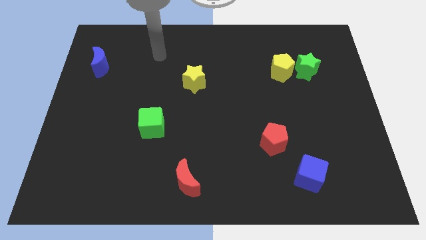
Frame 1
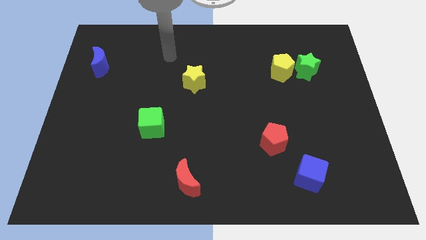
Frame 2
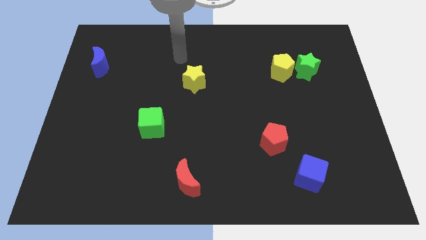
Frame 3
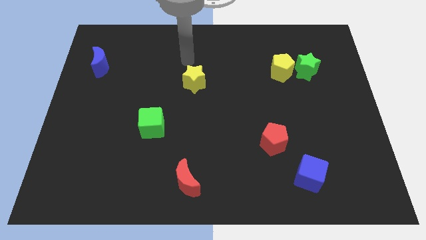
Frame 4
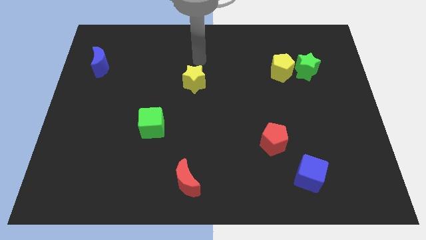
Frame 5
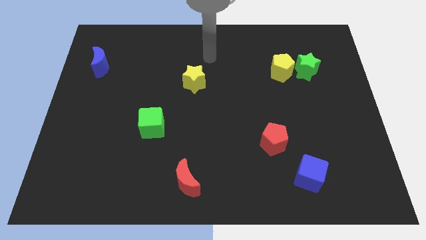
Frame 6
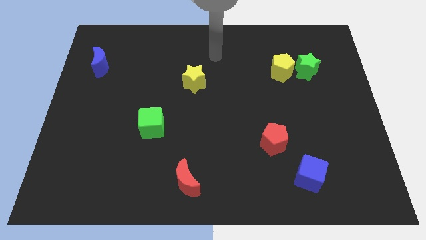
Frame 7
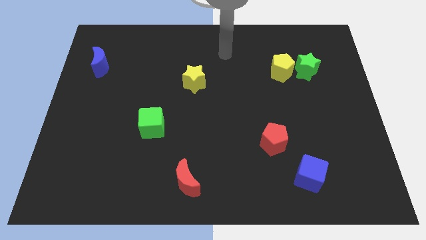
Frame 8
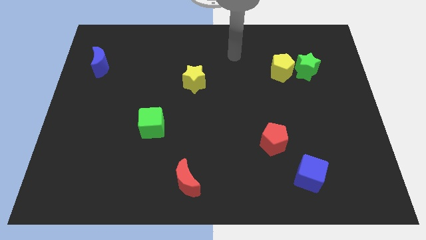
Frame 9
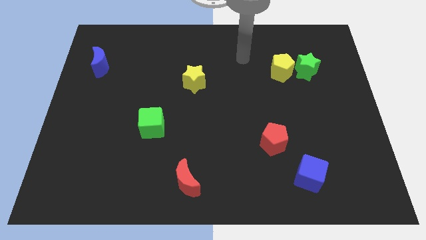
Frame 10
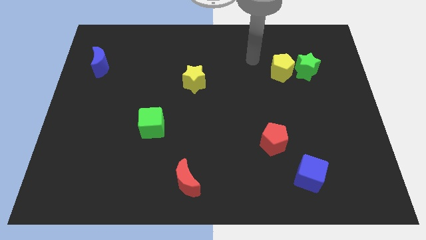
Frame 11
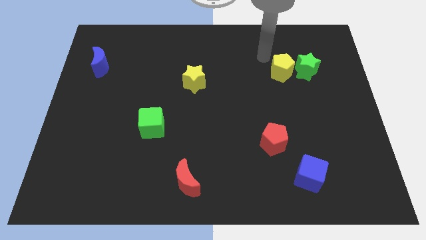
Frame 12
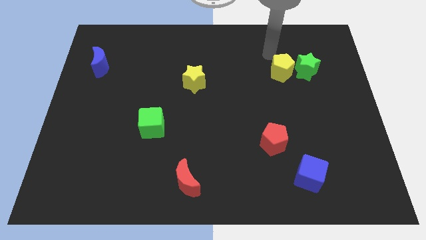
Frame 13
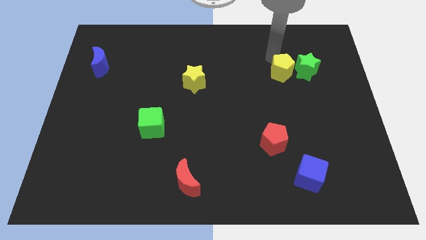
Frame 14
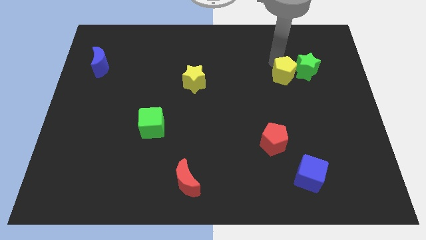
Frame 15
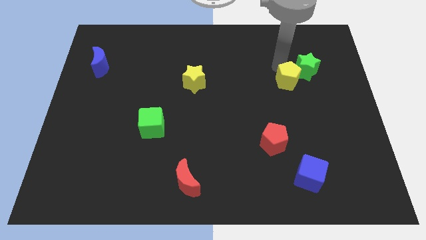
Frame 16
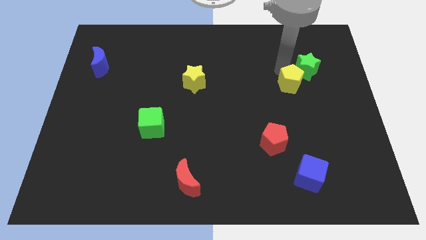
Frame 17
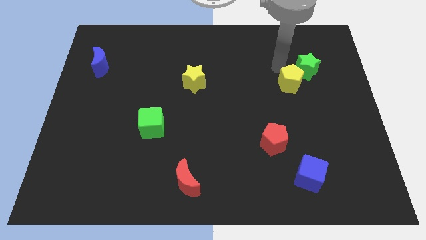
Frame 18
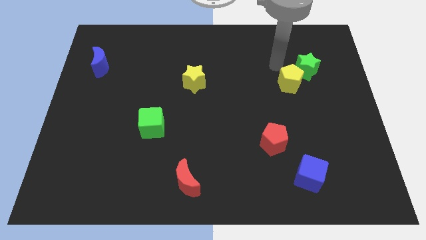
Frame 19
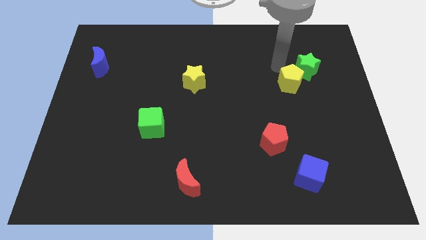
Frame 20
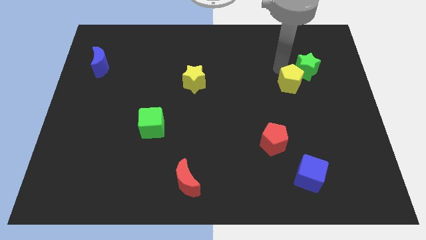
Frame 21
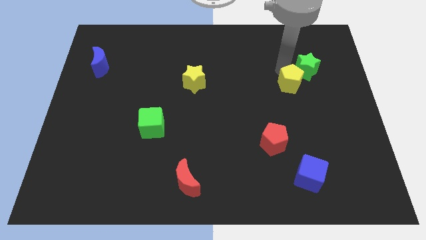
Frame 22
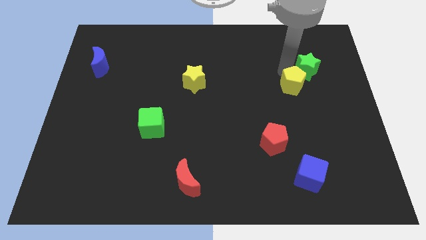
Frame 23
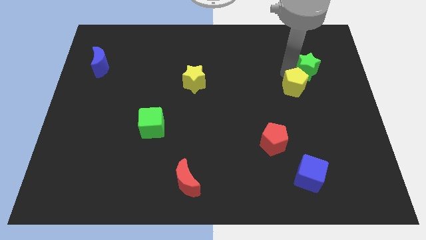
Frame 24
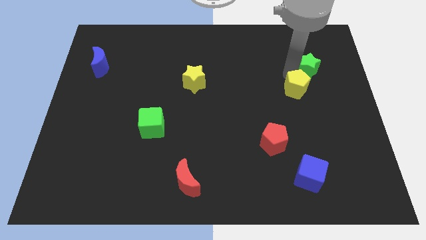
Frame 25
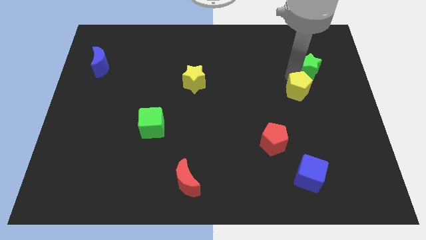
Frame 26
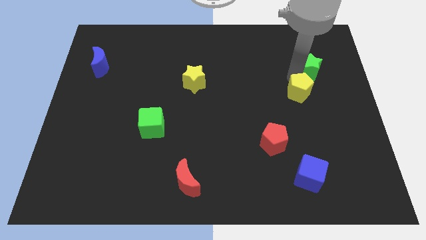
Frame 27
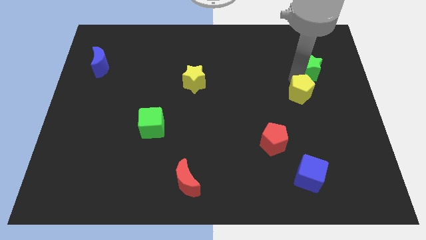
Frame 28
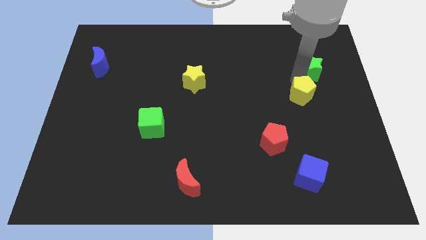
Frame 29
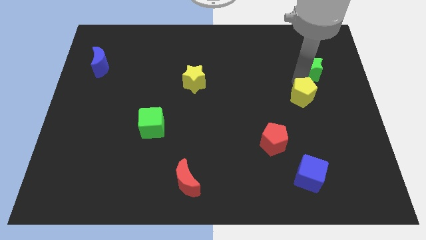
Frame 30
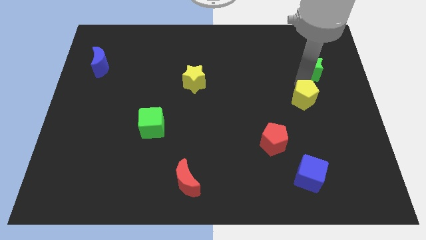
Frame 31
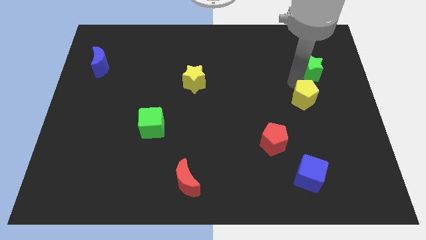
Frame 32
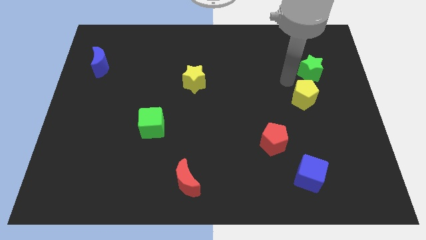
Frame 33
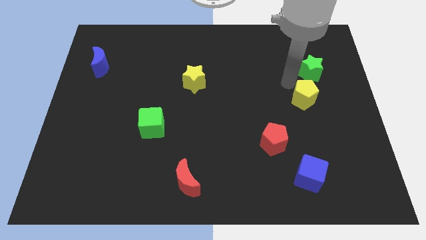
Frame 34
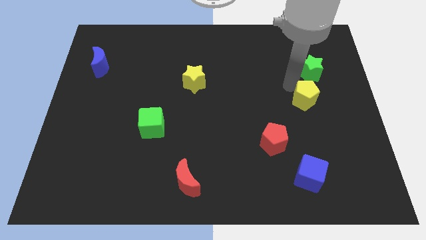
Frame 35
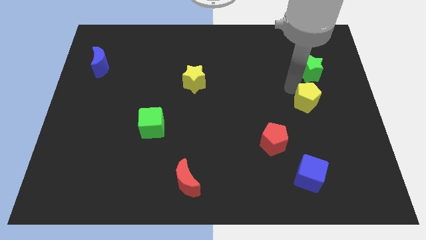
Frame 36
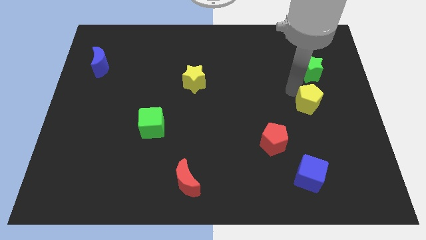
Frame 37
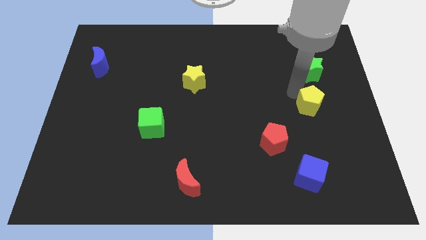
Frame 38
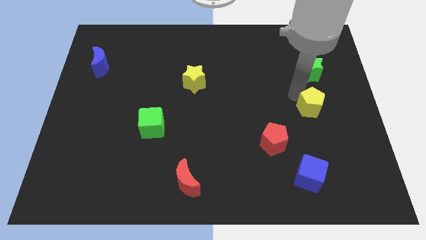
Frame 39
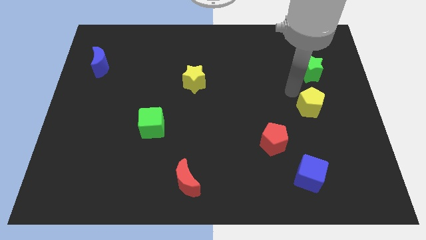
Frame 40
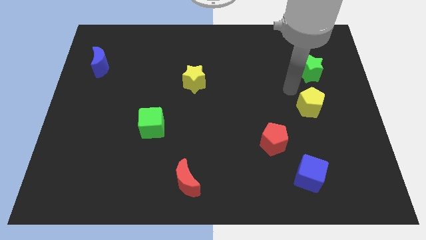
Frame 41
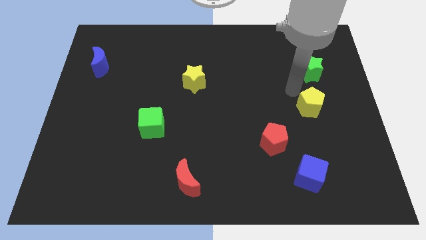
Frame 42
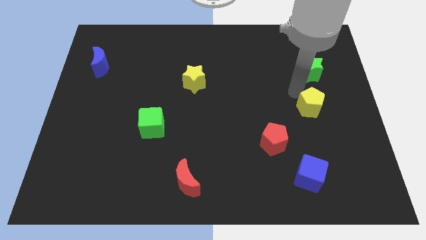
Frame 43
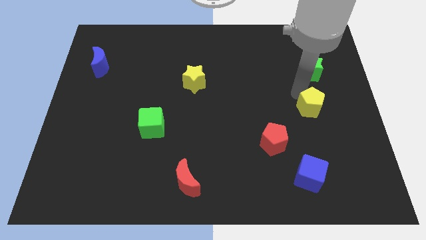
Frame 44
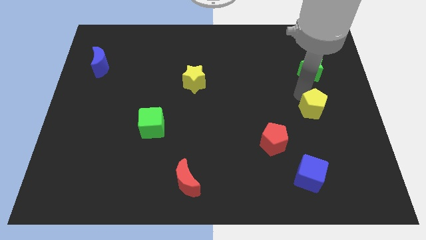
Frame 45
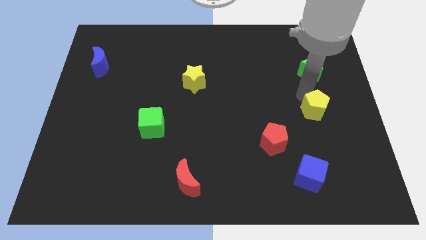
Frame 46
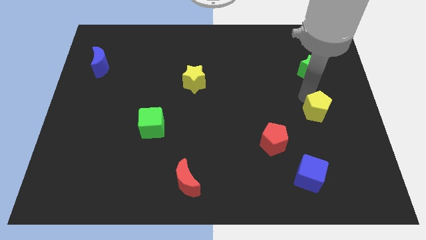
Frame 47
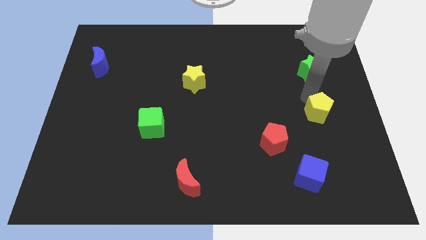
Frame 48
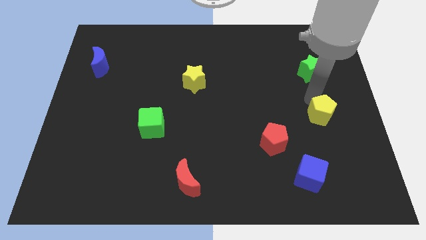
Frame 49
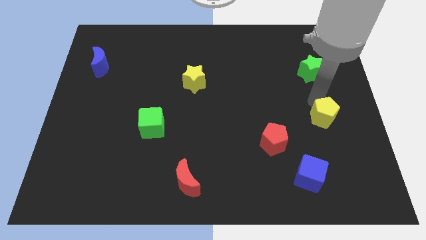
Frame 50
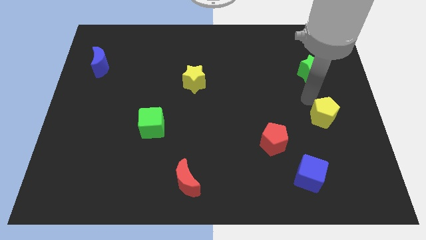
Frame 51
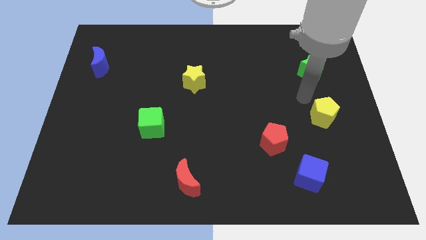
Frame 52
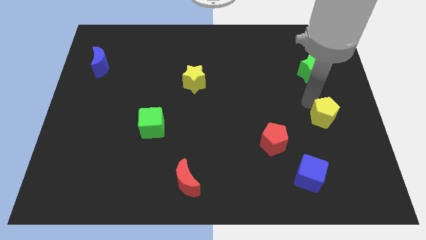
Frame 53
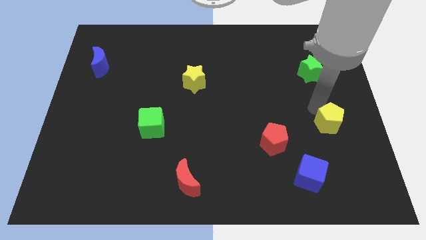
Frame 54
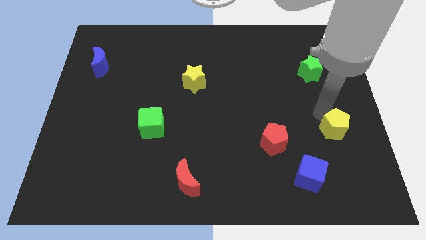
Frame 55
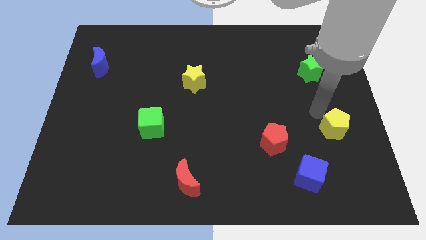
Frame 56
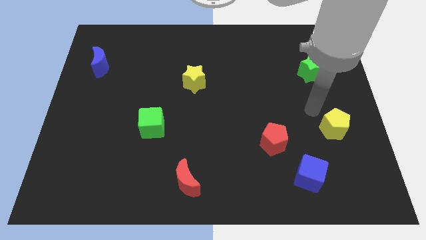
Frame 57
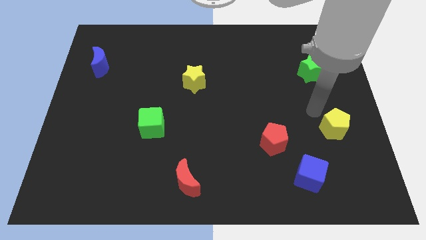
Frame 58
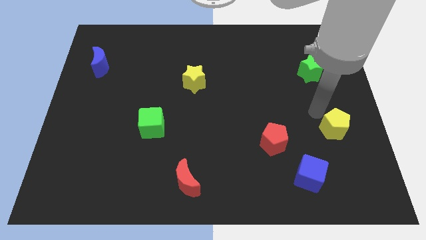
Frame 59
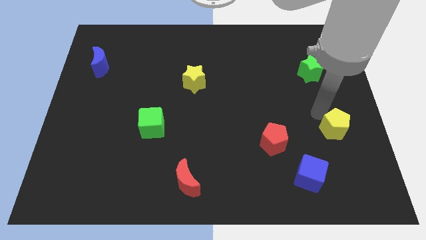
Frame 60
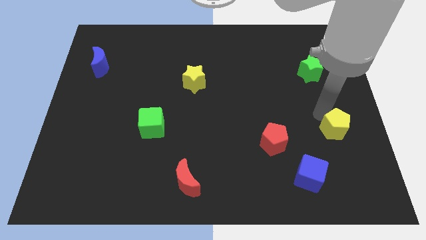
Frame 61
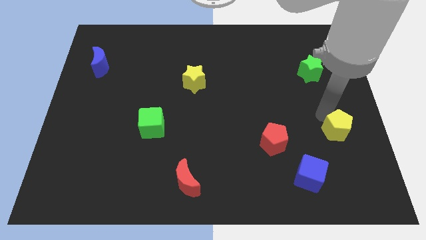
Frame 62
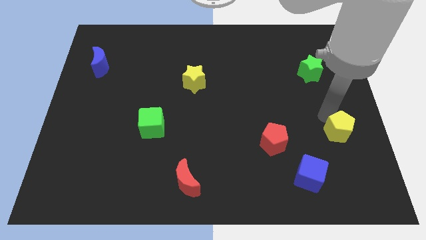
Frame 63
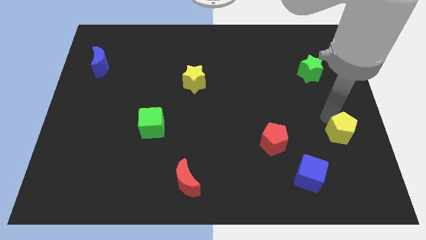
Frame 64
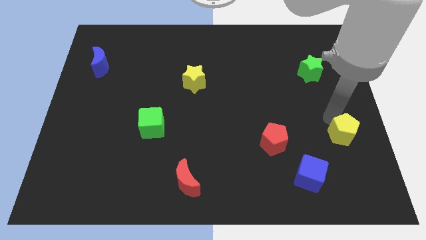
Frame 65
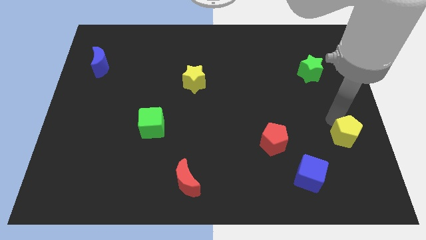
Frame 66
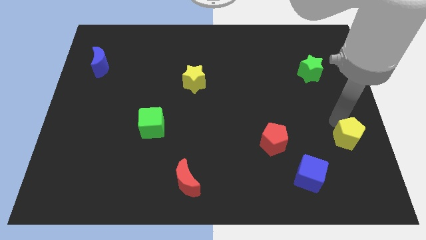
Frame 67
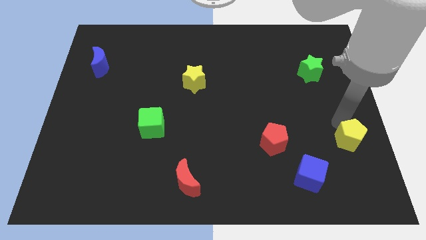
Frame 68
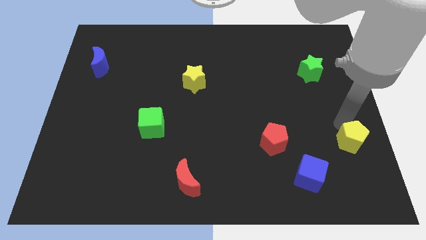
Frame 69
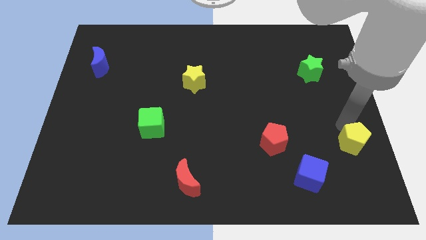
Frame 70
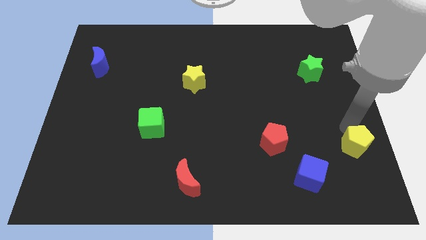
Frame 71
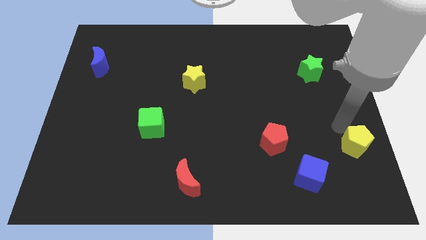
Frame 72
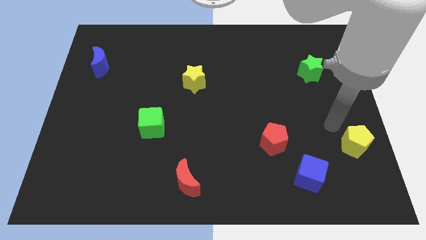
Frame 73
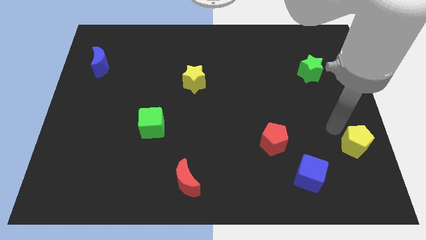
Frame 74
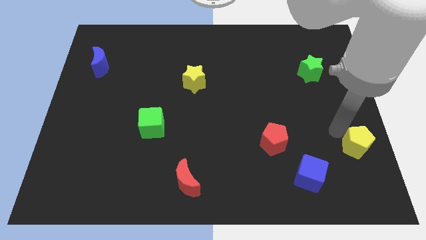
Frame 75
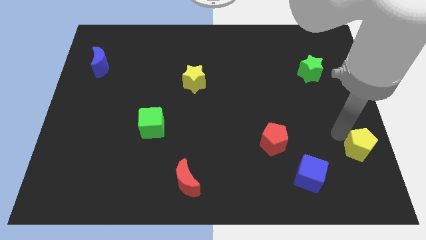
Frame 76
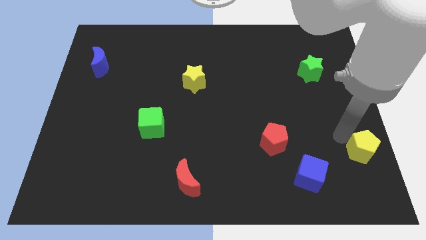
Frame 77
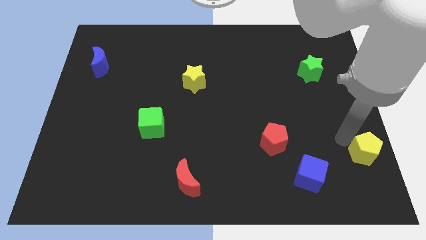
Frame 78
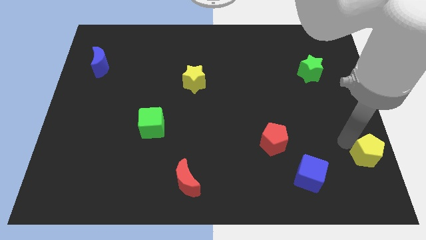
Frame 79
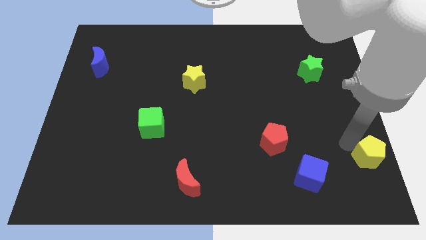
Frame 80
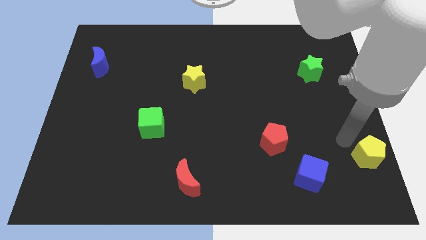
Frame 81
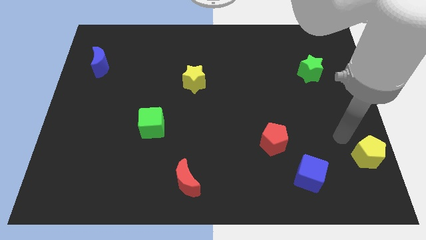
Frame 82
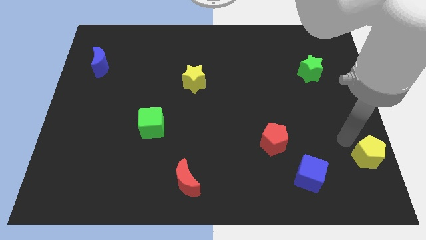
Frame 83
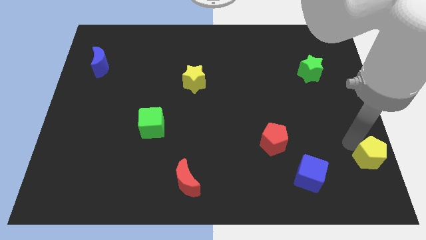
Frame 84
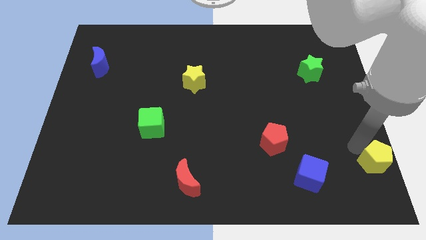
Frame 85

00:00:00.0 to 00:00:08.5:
push the yellow pentagon to the bottom right
